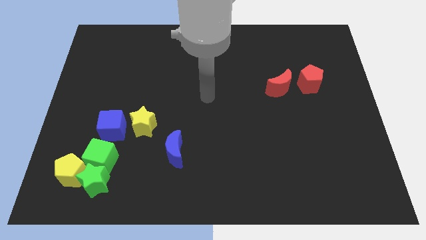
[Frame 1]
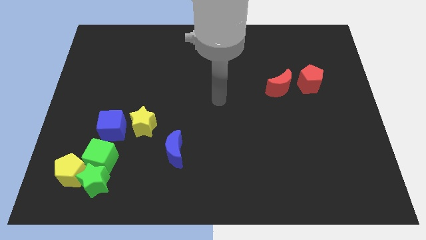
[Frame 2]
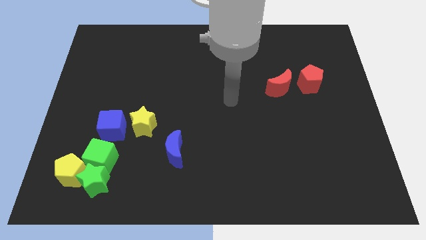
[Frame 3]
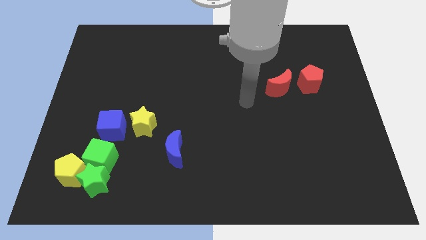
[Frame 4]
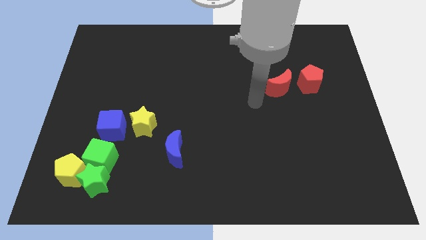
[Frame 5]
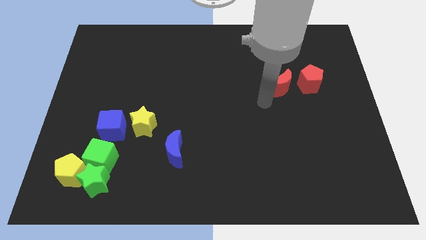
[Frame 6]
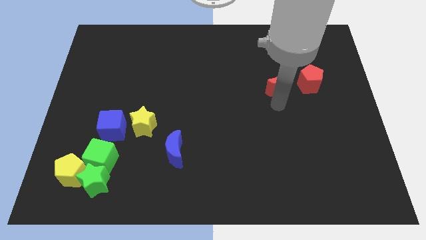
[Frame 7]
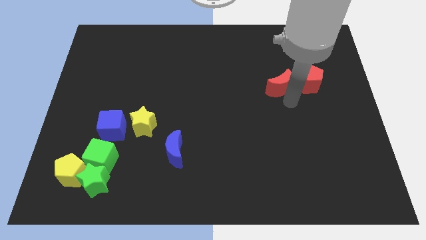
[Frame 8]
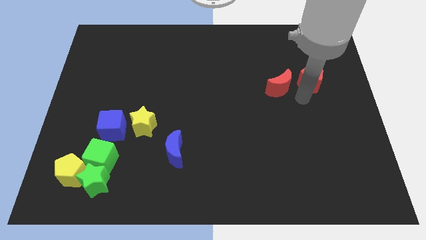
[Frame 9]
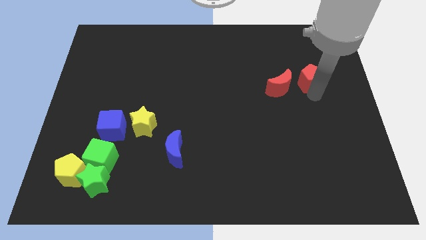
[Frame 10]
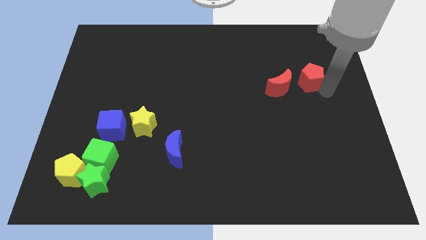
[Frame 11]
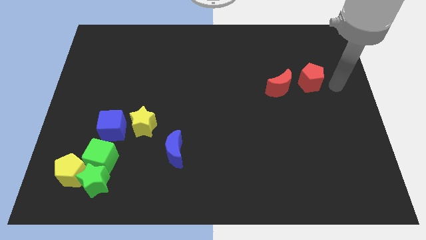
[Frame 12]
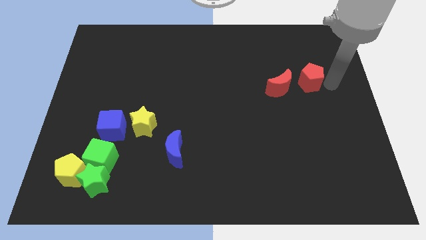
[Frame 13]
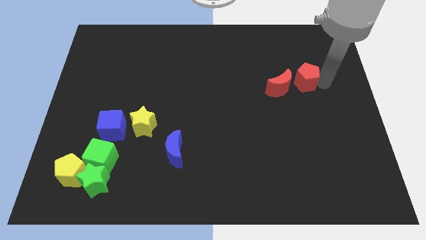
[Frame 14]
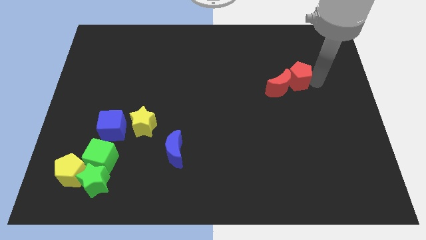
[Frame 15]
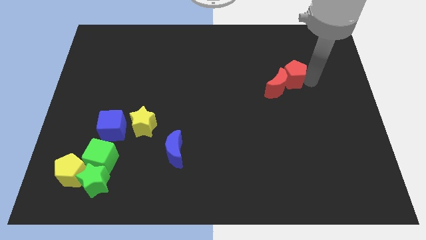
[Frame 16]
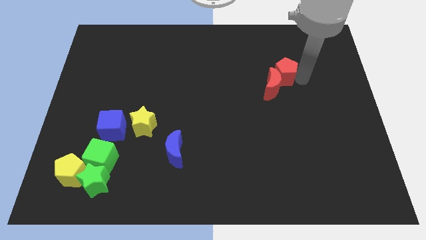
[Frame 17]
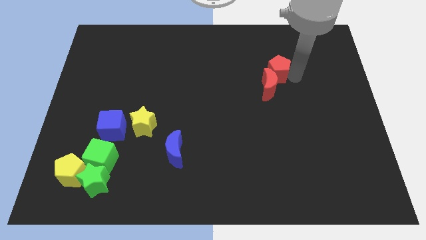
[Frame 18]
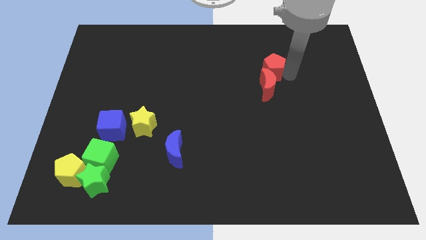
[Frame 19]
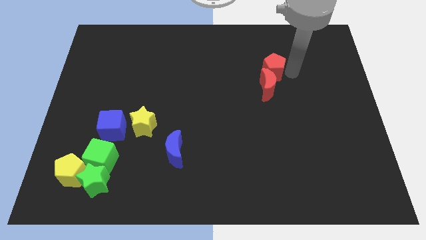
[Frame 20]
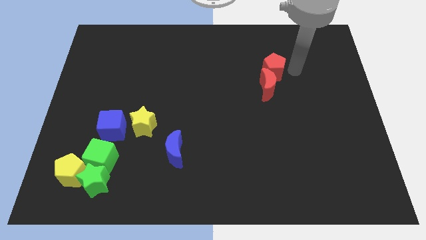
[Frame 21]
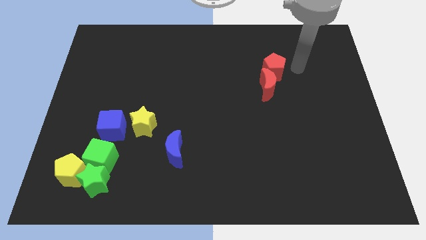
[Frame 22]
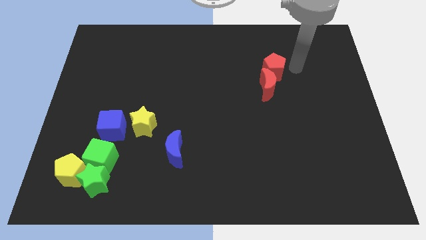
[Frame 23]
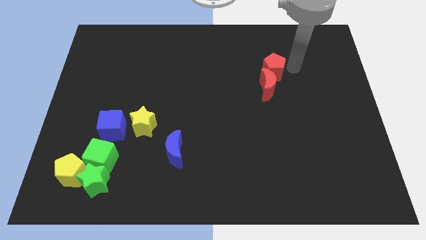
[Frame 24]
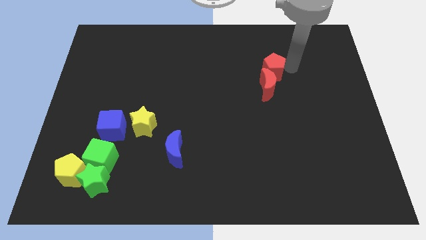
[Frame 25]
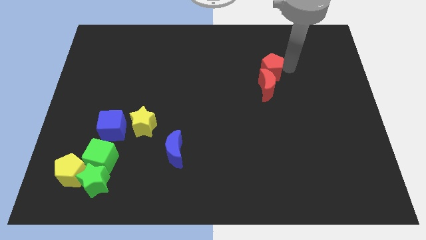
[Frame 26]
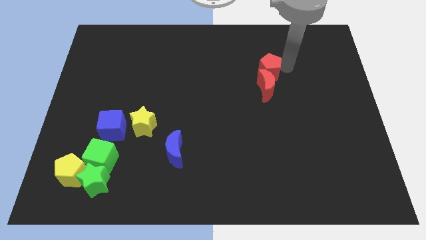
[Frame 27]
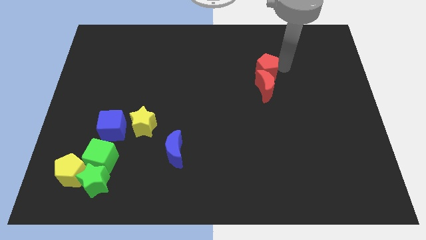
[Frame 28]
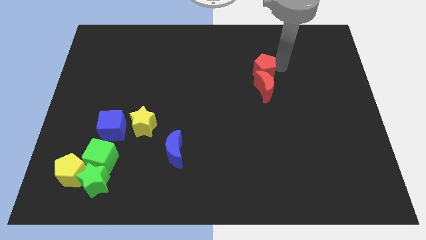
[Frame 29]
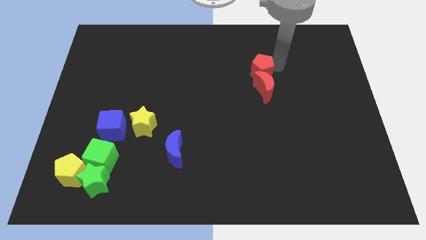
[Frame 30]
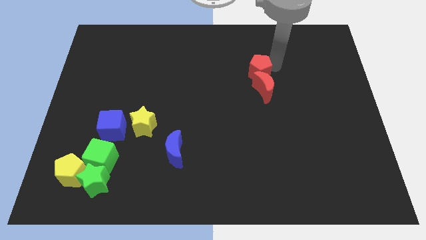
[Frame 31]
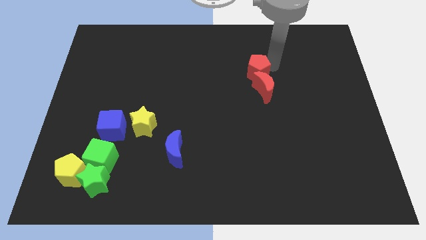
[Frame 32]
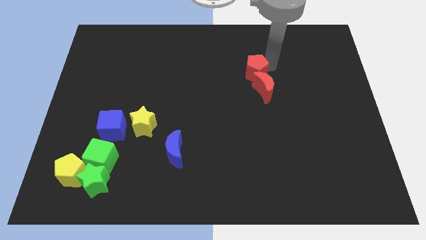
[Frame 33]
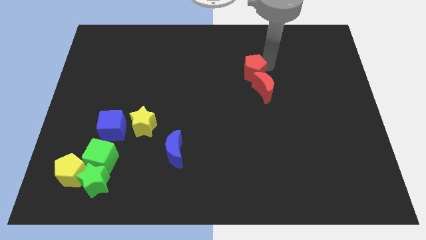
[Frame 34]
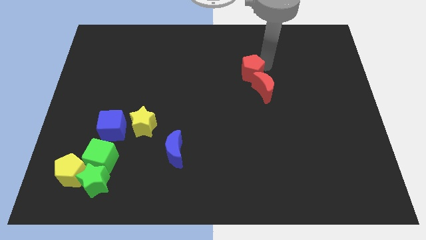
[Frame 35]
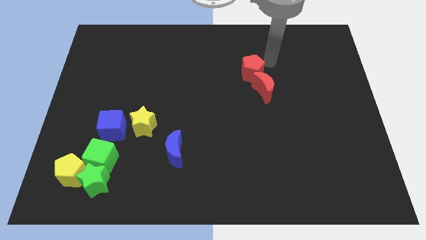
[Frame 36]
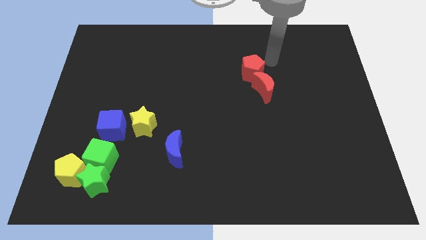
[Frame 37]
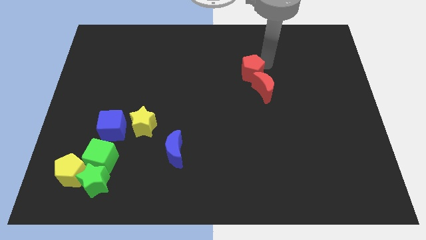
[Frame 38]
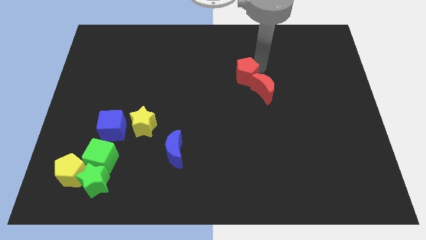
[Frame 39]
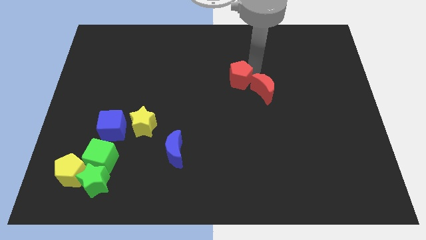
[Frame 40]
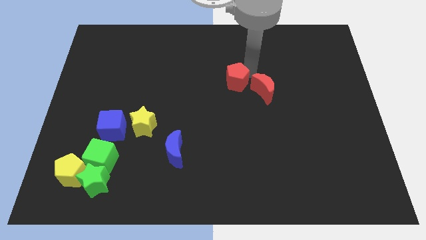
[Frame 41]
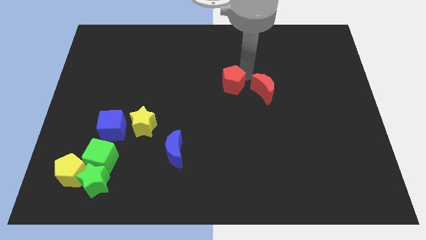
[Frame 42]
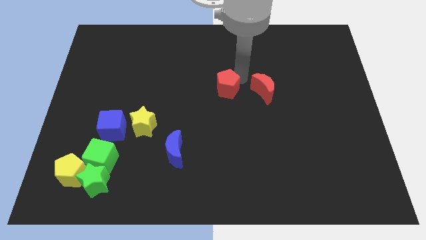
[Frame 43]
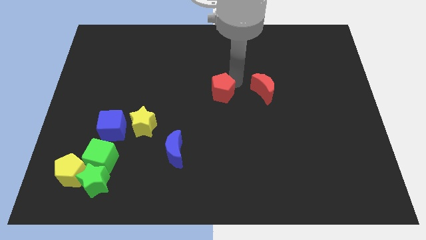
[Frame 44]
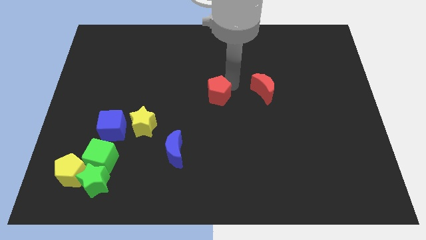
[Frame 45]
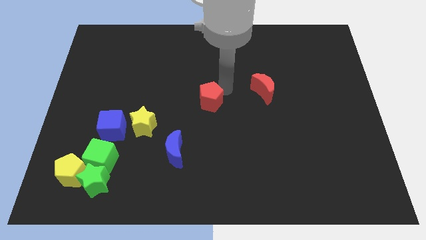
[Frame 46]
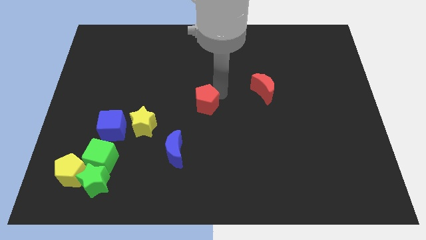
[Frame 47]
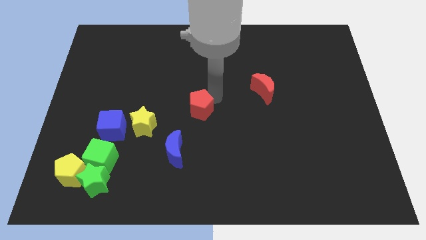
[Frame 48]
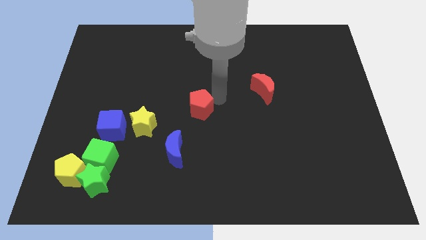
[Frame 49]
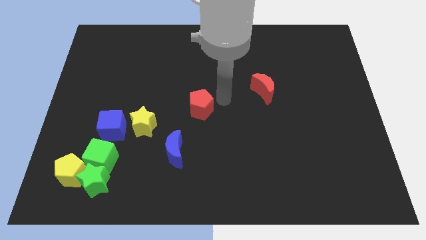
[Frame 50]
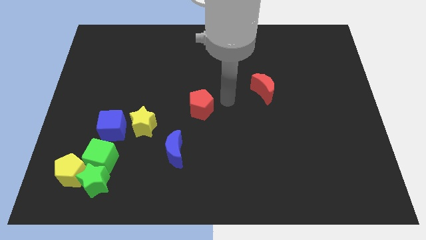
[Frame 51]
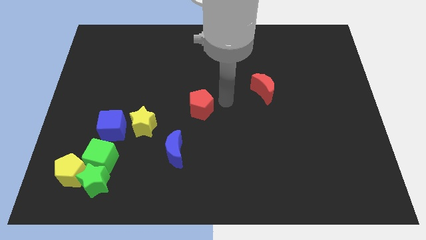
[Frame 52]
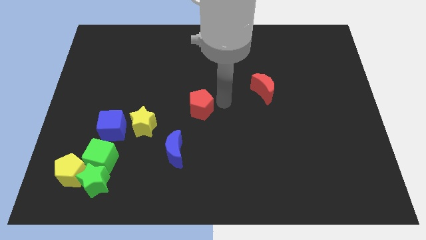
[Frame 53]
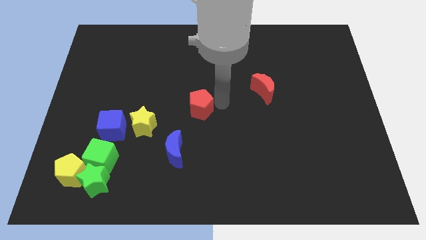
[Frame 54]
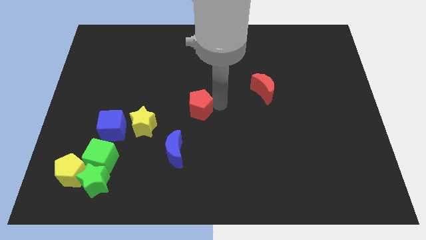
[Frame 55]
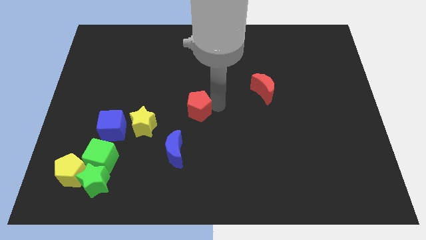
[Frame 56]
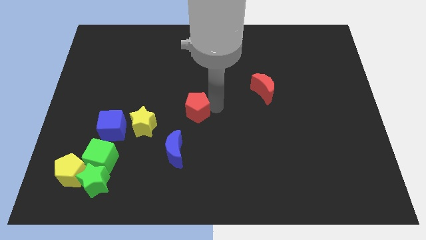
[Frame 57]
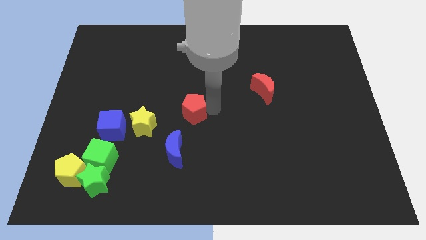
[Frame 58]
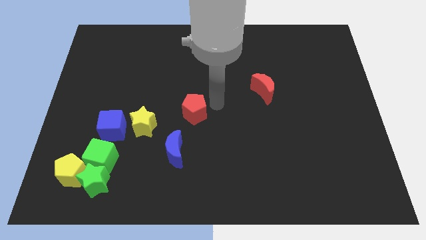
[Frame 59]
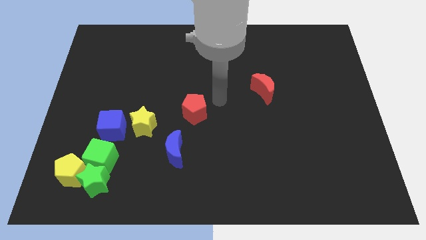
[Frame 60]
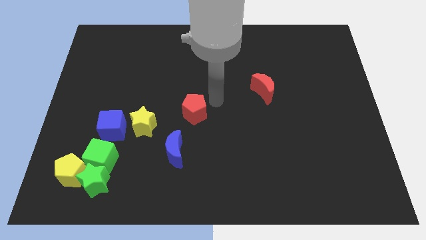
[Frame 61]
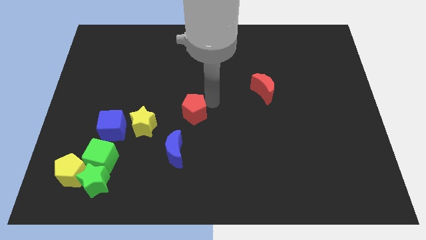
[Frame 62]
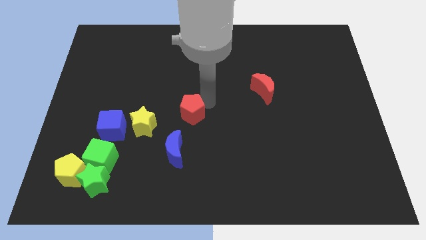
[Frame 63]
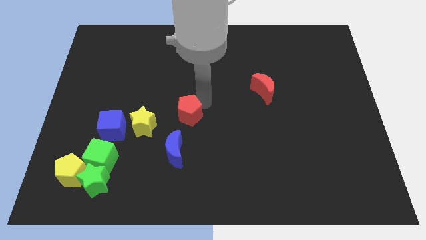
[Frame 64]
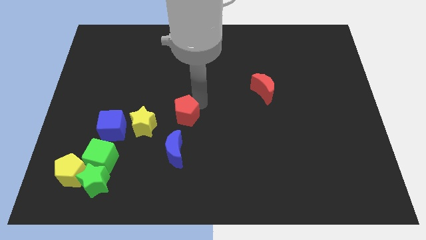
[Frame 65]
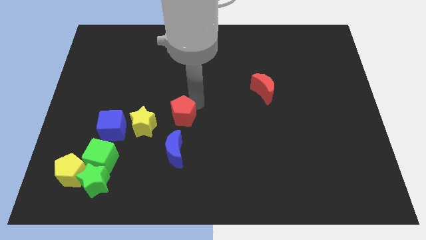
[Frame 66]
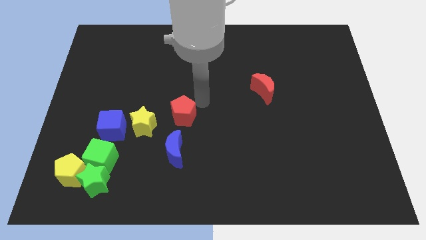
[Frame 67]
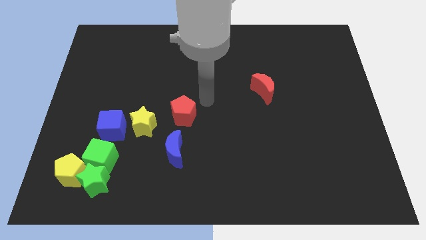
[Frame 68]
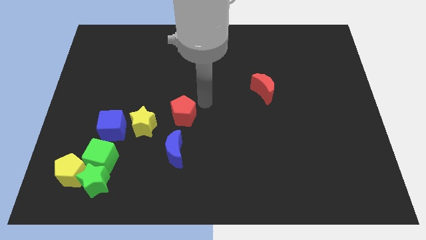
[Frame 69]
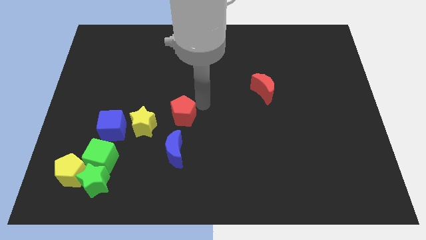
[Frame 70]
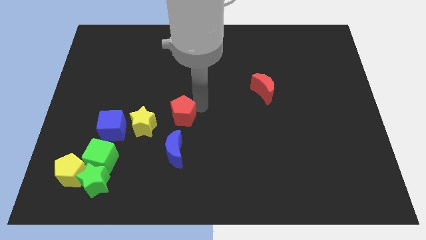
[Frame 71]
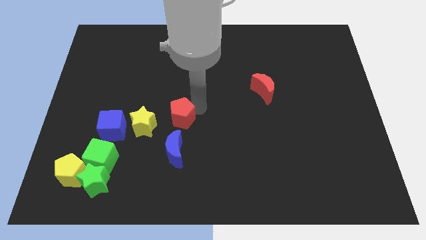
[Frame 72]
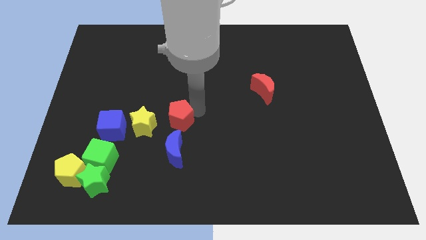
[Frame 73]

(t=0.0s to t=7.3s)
slide the red pentagon to the right side of the blue cube
